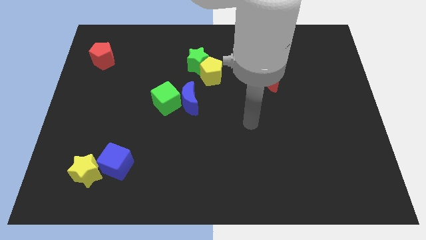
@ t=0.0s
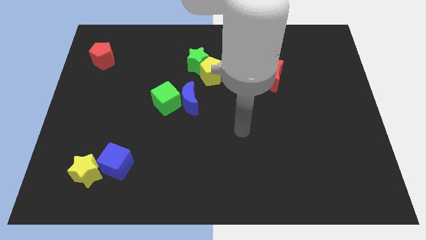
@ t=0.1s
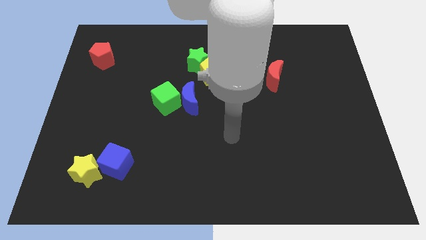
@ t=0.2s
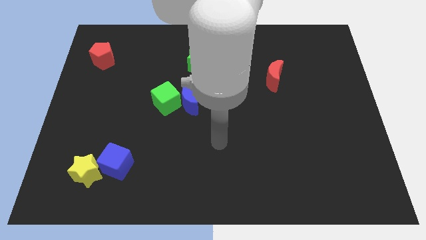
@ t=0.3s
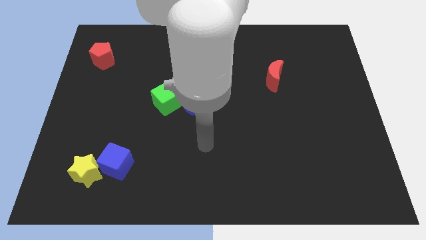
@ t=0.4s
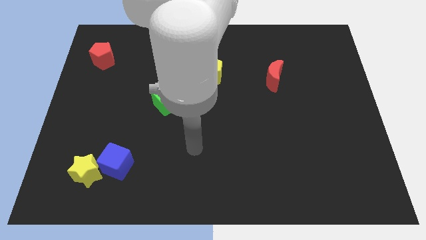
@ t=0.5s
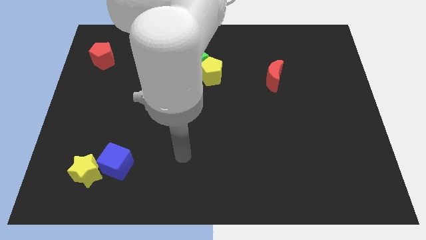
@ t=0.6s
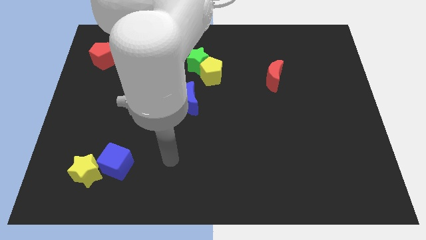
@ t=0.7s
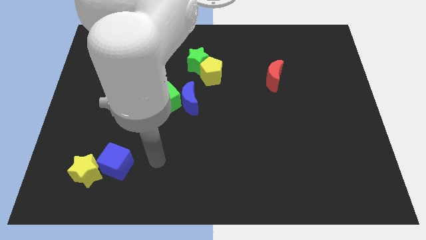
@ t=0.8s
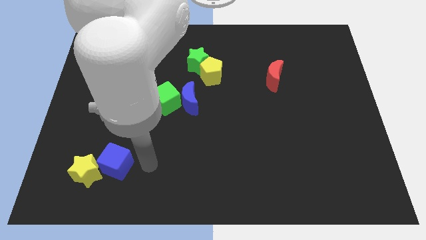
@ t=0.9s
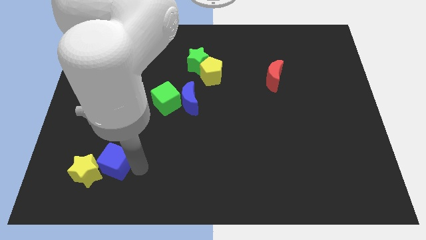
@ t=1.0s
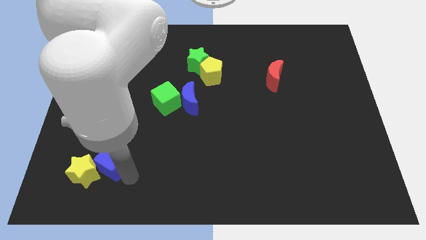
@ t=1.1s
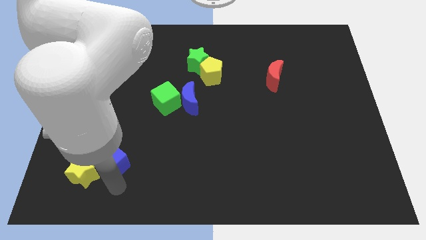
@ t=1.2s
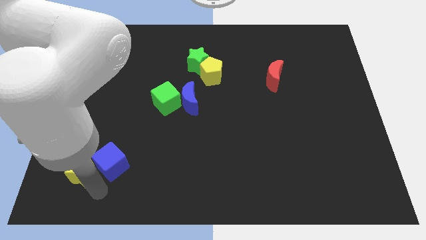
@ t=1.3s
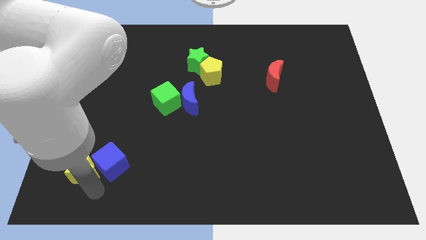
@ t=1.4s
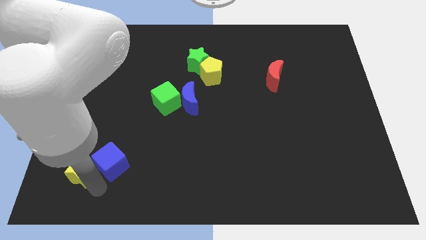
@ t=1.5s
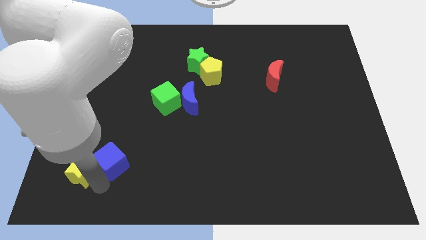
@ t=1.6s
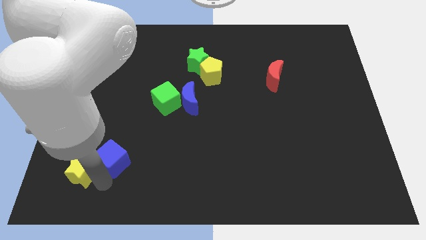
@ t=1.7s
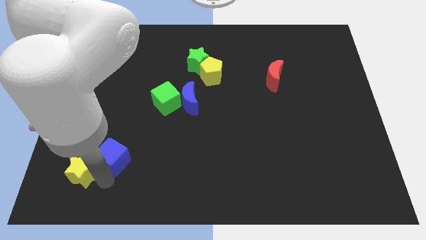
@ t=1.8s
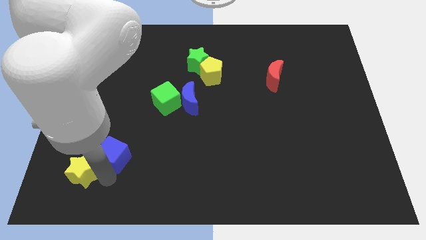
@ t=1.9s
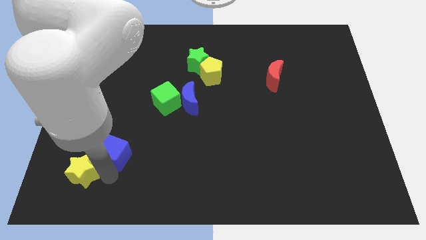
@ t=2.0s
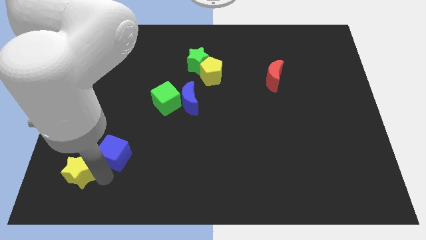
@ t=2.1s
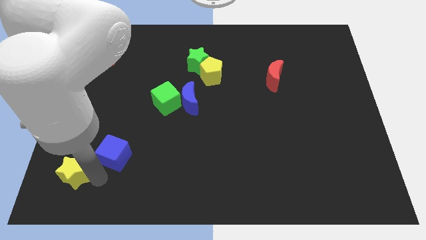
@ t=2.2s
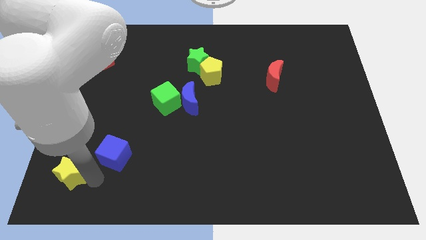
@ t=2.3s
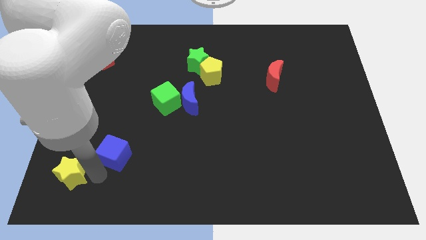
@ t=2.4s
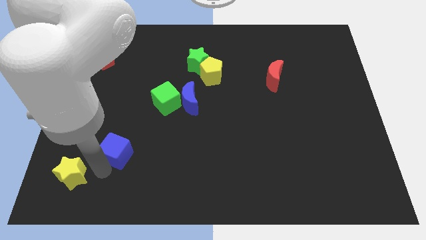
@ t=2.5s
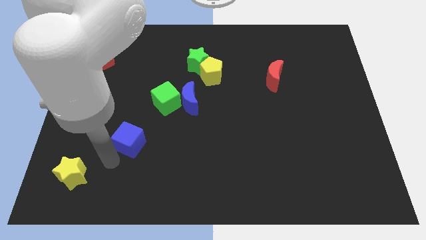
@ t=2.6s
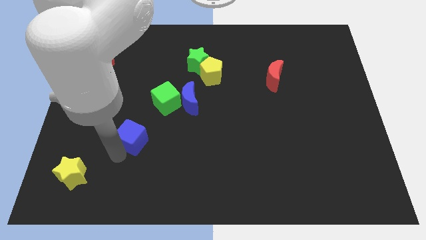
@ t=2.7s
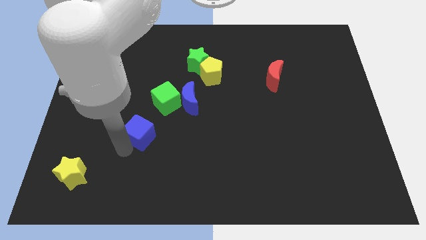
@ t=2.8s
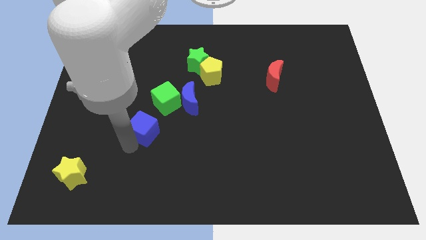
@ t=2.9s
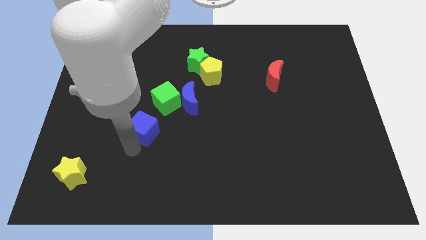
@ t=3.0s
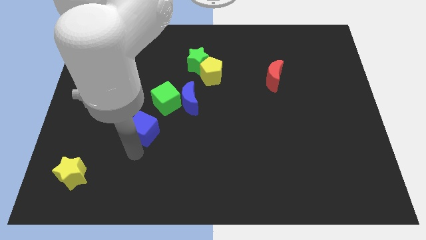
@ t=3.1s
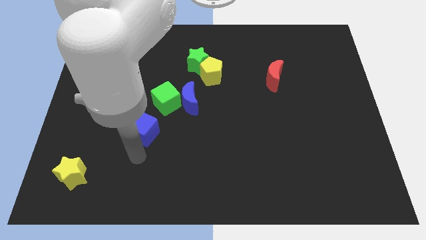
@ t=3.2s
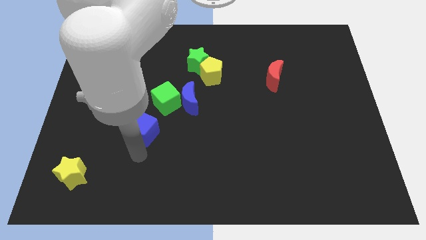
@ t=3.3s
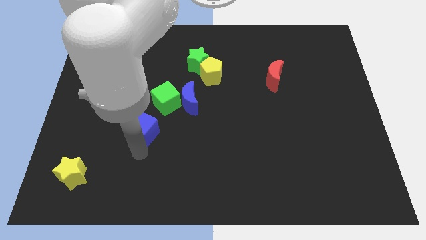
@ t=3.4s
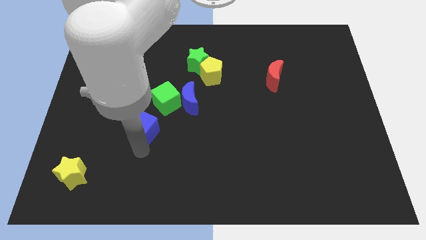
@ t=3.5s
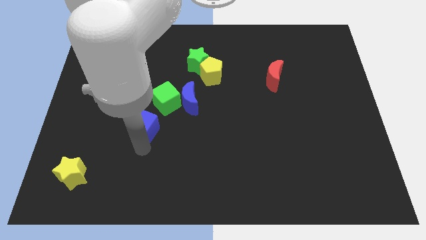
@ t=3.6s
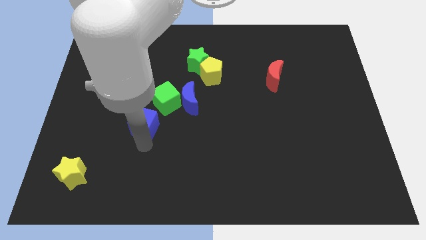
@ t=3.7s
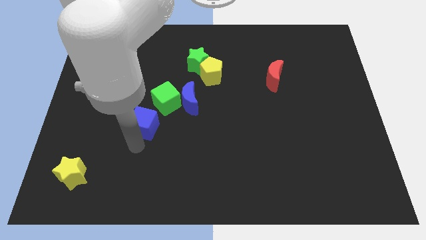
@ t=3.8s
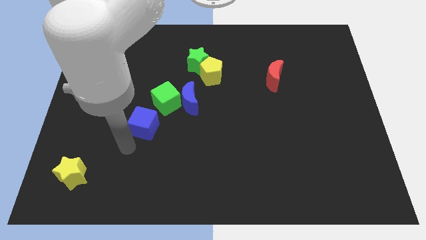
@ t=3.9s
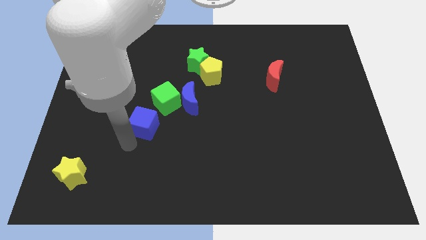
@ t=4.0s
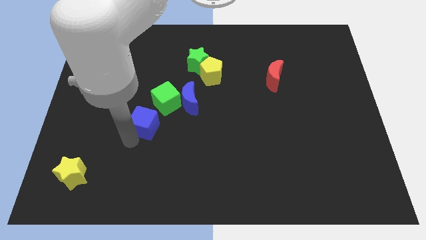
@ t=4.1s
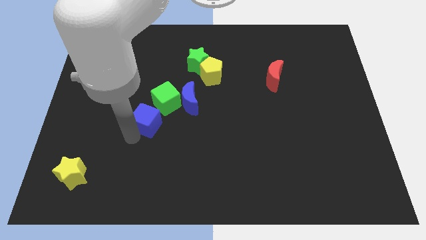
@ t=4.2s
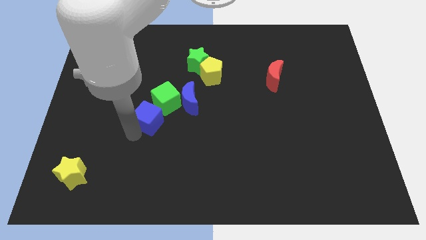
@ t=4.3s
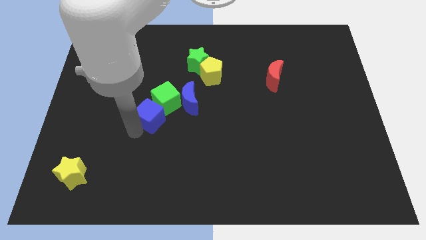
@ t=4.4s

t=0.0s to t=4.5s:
put the blue cube close to the green cube

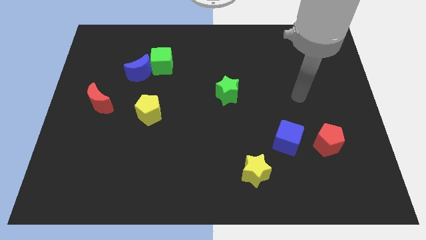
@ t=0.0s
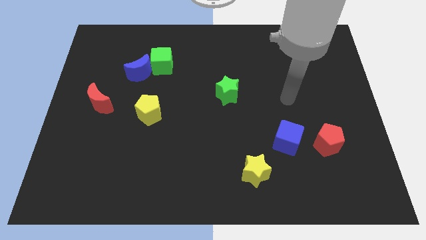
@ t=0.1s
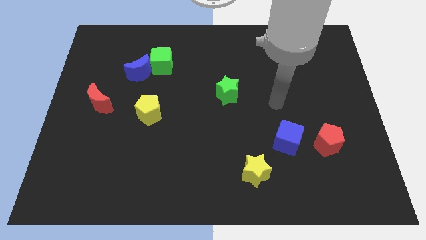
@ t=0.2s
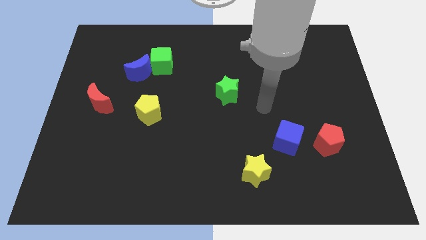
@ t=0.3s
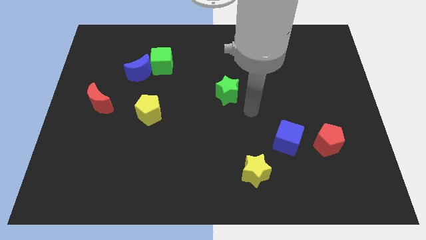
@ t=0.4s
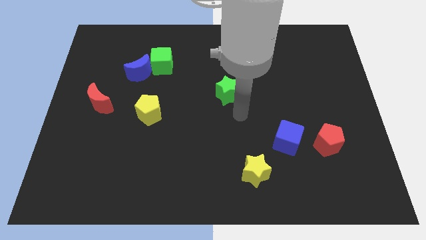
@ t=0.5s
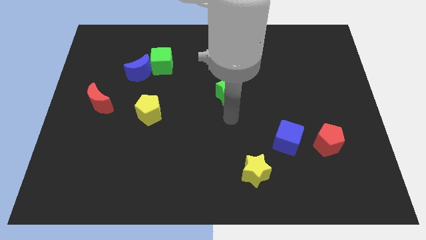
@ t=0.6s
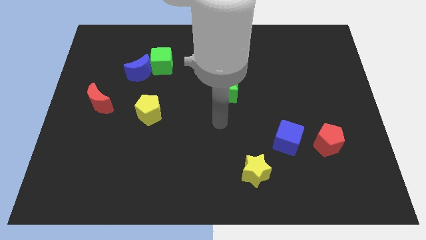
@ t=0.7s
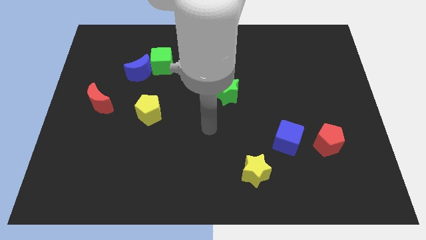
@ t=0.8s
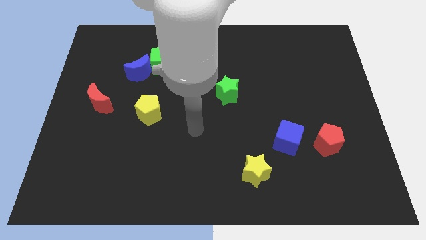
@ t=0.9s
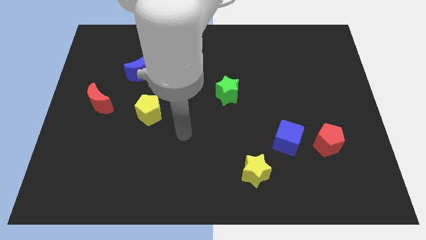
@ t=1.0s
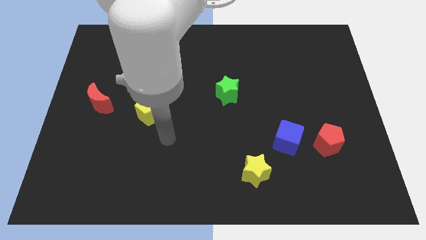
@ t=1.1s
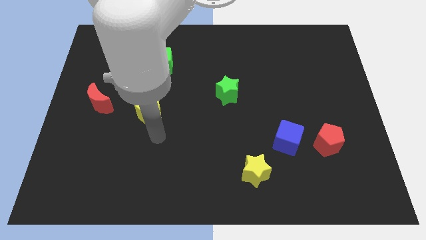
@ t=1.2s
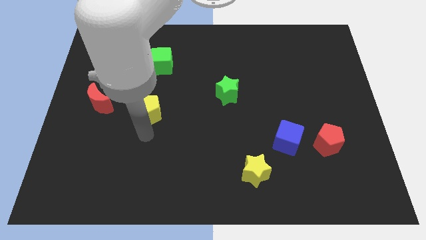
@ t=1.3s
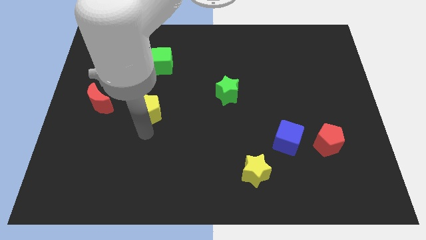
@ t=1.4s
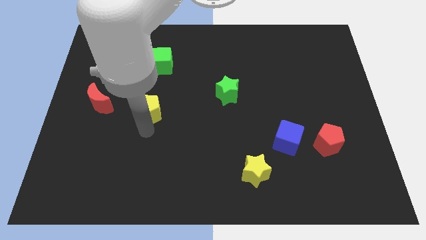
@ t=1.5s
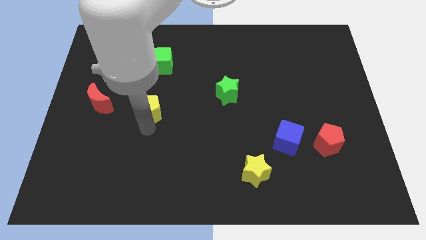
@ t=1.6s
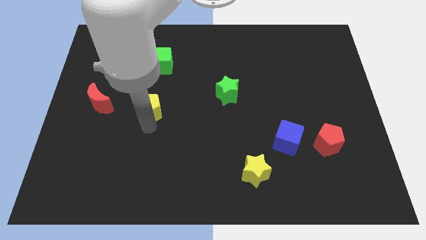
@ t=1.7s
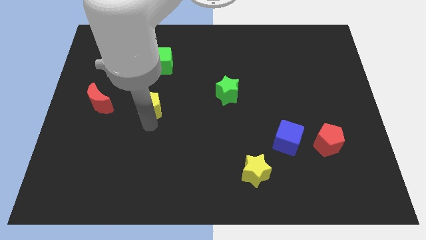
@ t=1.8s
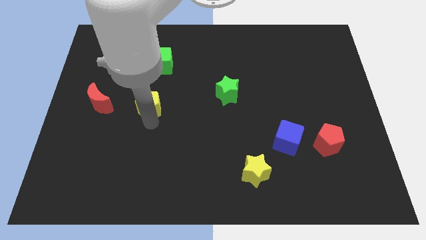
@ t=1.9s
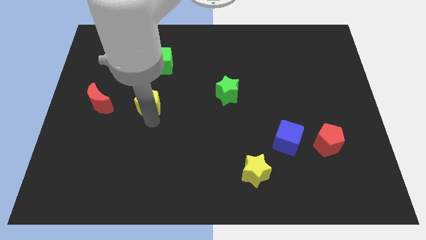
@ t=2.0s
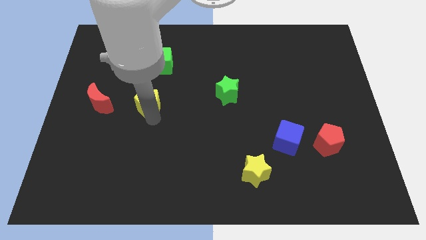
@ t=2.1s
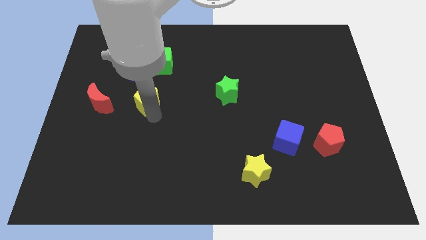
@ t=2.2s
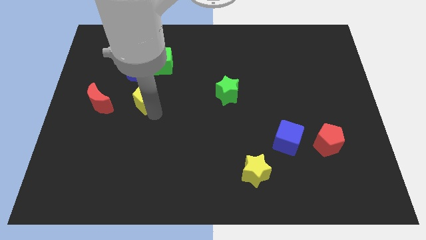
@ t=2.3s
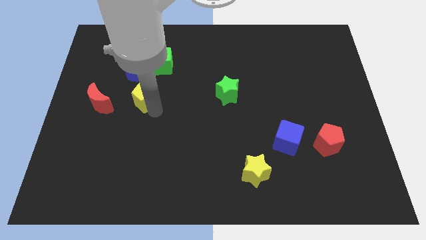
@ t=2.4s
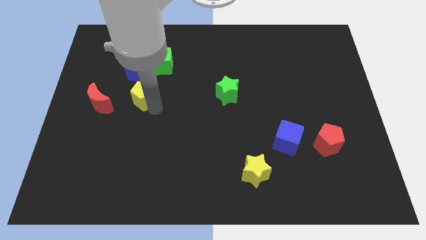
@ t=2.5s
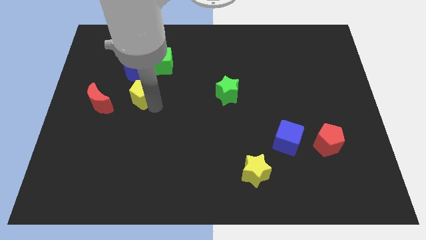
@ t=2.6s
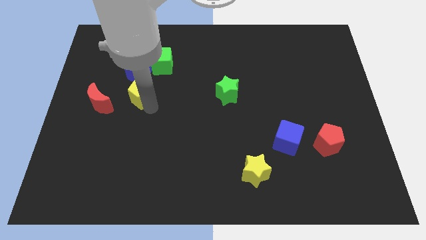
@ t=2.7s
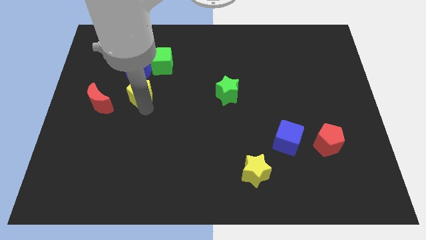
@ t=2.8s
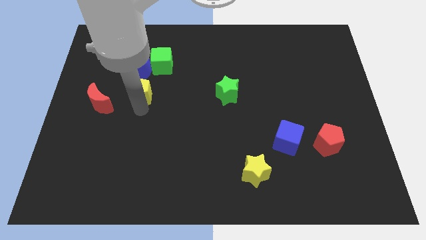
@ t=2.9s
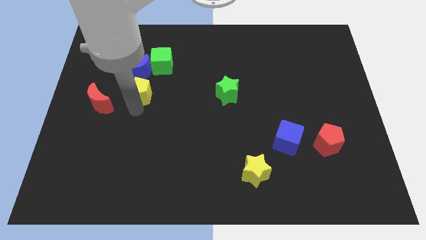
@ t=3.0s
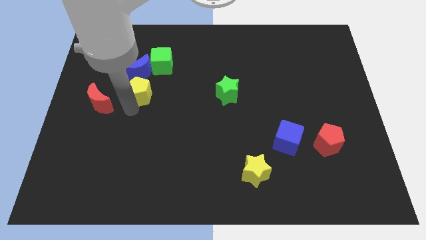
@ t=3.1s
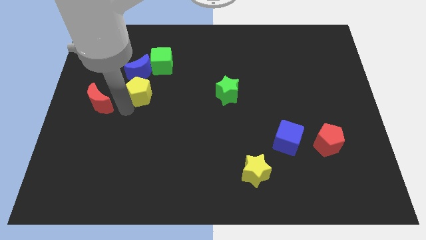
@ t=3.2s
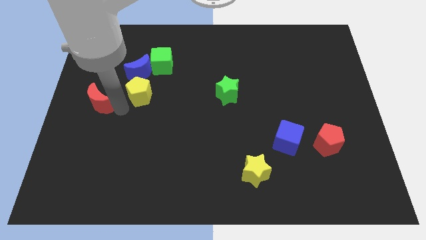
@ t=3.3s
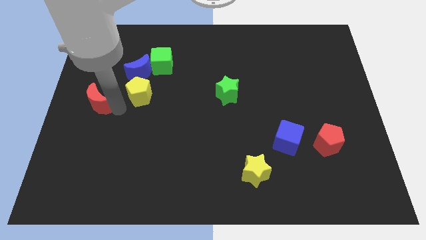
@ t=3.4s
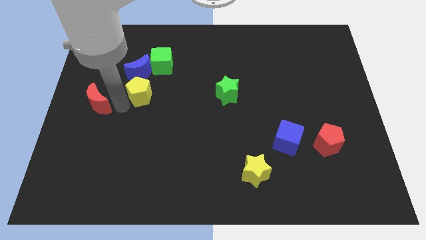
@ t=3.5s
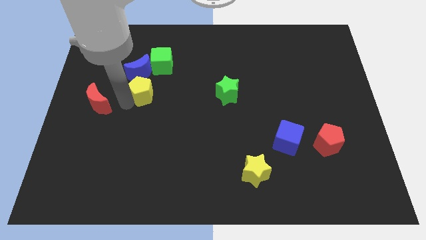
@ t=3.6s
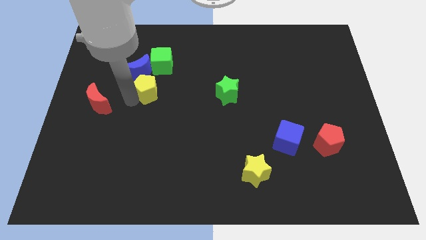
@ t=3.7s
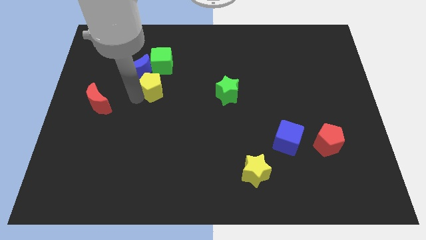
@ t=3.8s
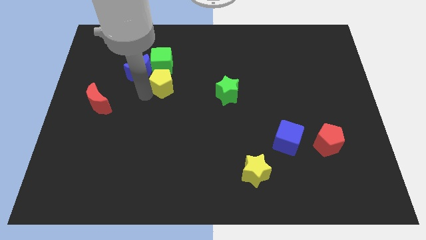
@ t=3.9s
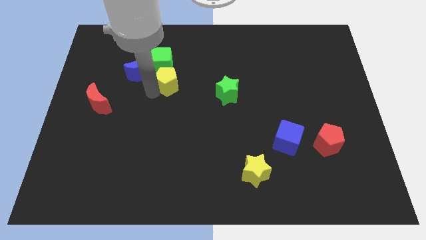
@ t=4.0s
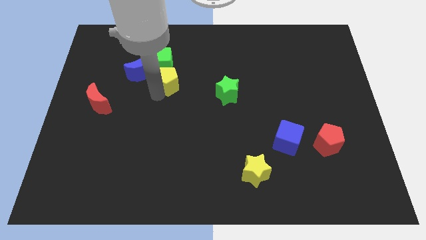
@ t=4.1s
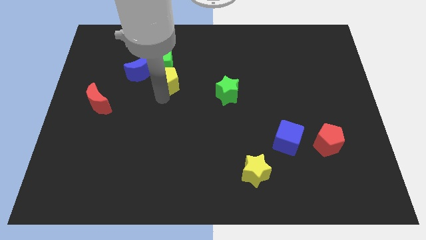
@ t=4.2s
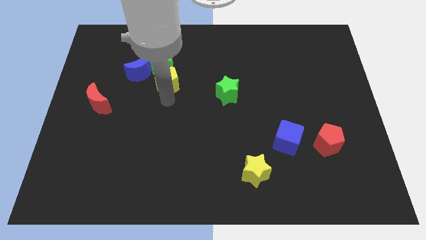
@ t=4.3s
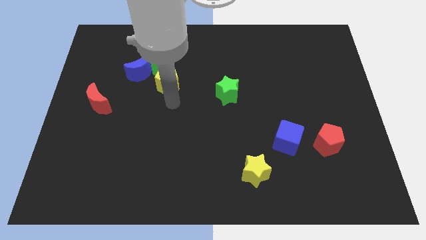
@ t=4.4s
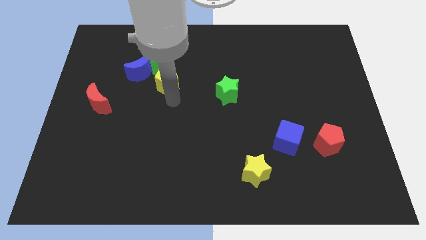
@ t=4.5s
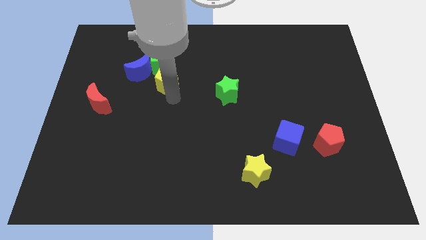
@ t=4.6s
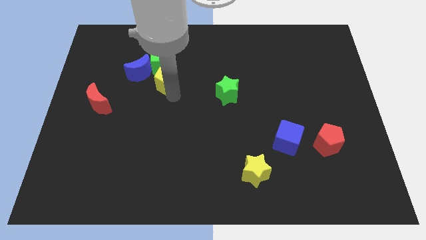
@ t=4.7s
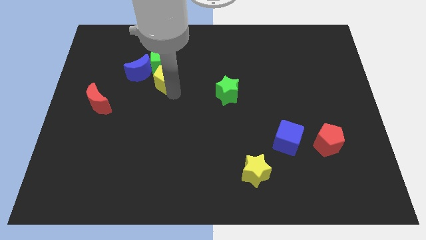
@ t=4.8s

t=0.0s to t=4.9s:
put the yellow pentagon next to the green cube
